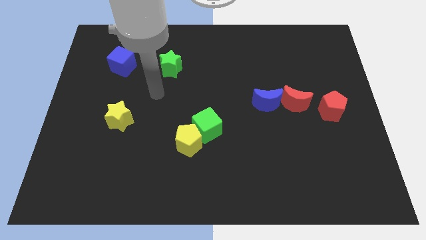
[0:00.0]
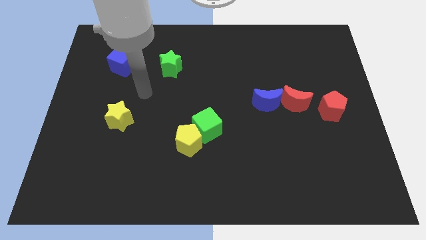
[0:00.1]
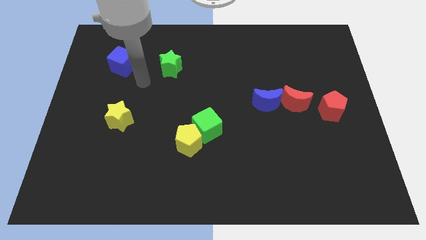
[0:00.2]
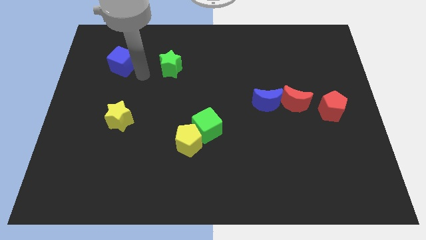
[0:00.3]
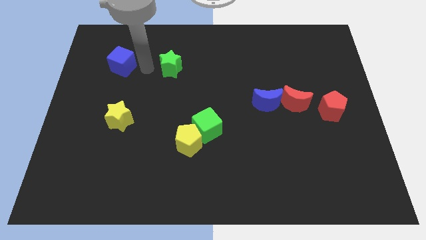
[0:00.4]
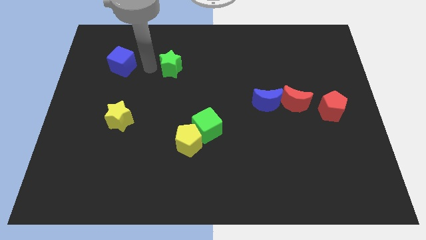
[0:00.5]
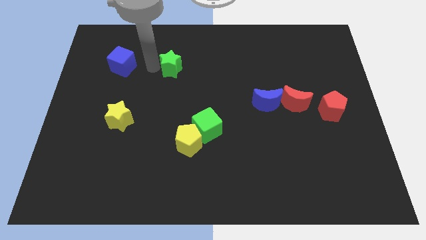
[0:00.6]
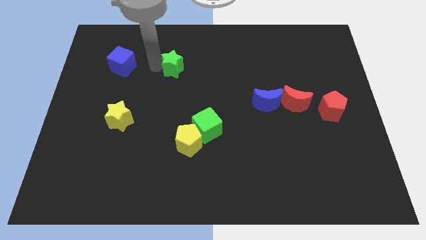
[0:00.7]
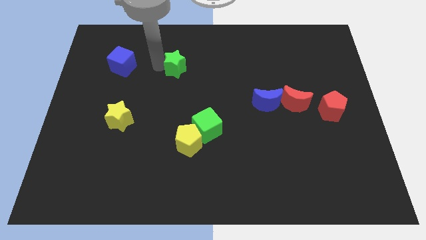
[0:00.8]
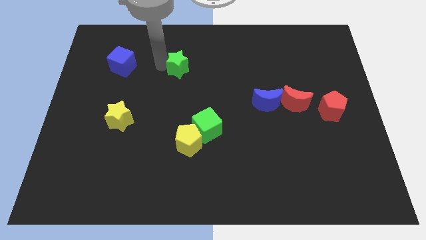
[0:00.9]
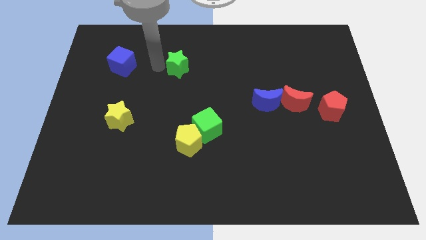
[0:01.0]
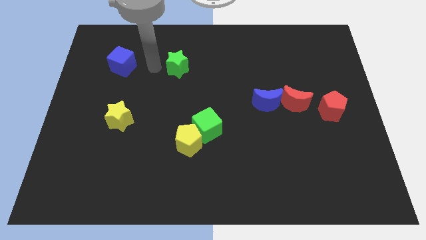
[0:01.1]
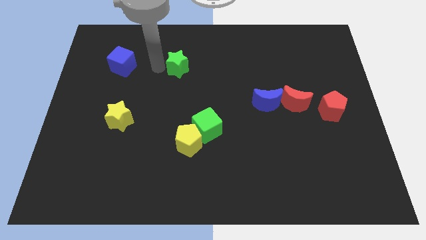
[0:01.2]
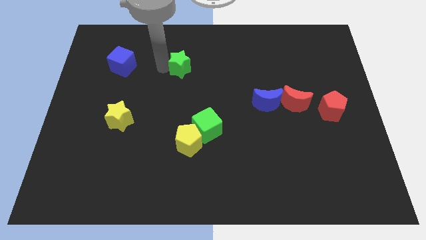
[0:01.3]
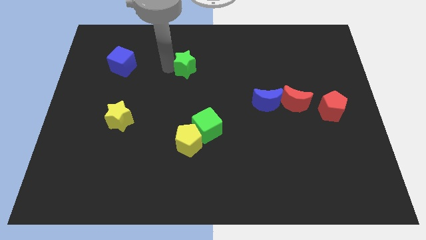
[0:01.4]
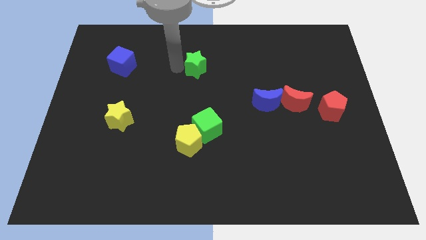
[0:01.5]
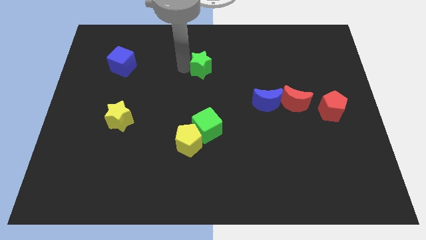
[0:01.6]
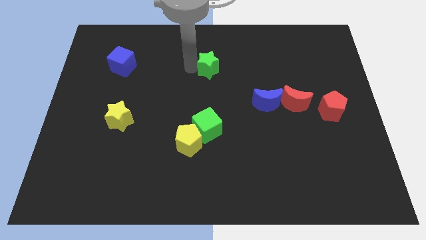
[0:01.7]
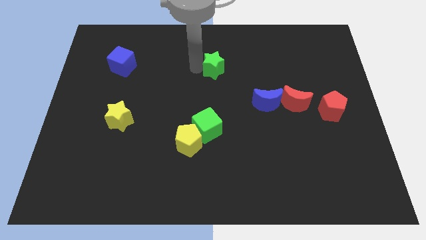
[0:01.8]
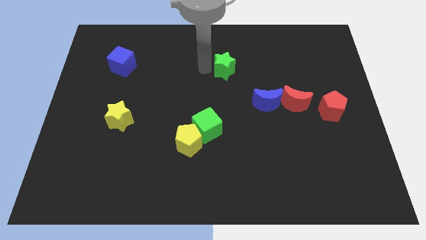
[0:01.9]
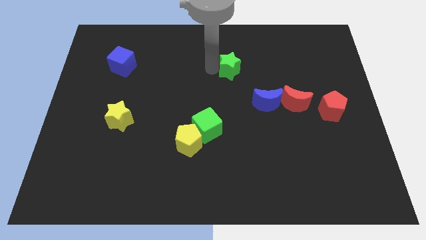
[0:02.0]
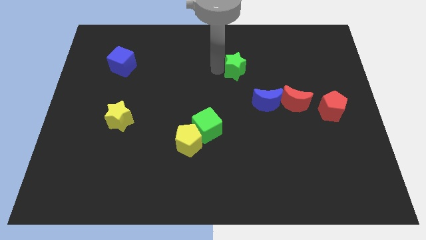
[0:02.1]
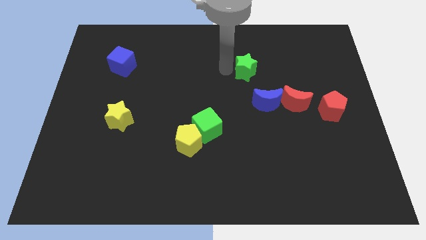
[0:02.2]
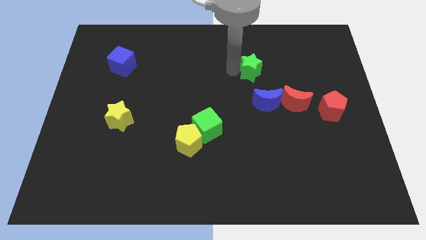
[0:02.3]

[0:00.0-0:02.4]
move the green star right

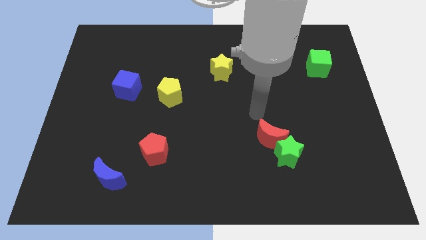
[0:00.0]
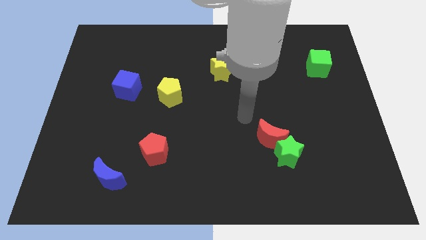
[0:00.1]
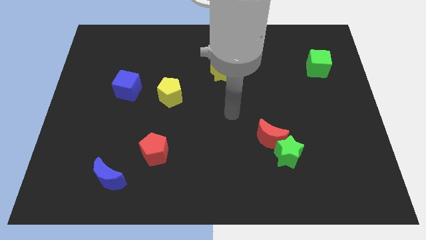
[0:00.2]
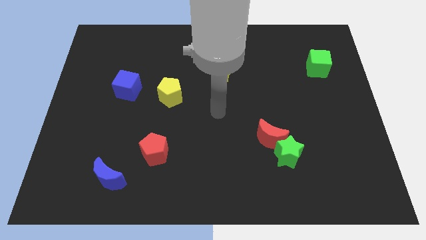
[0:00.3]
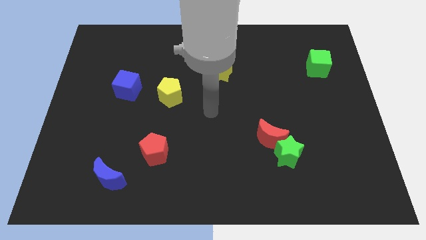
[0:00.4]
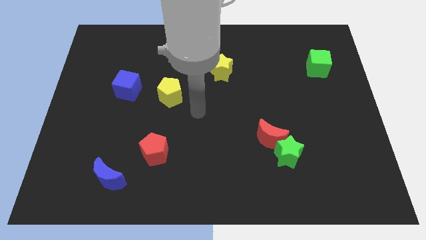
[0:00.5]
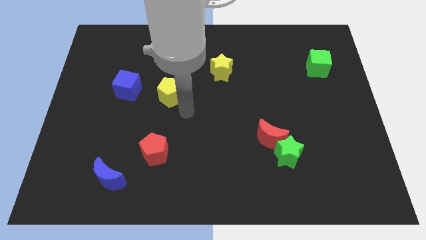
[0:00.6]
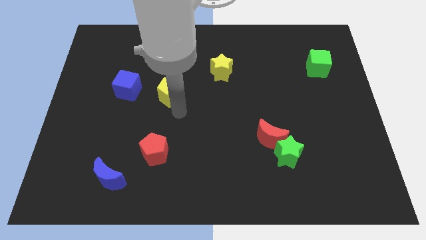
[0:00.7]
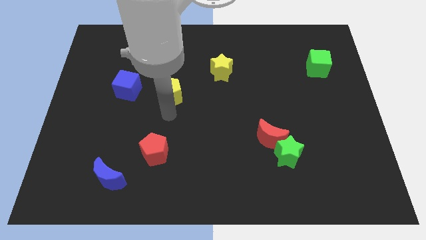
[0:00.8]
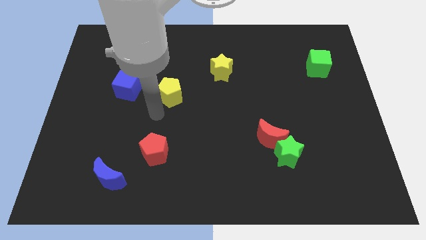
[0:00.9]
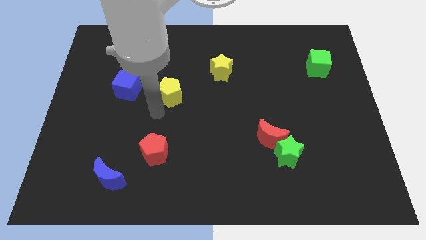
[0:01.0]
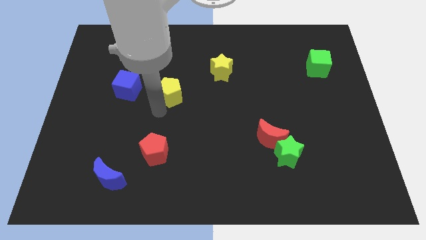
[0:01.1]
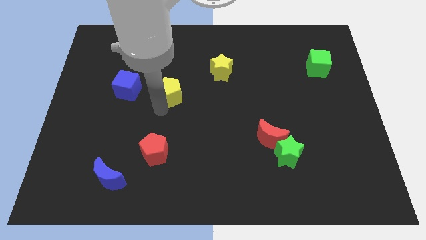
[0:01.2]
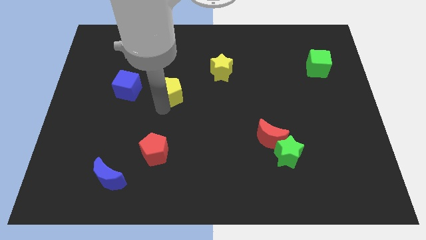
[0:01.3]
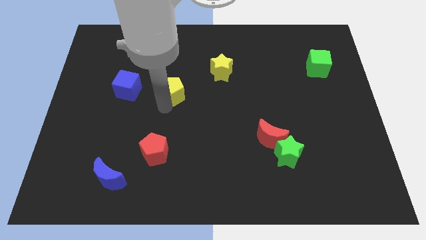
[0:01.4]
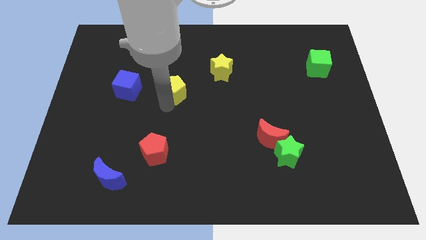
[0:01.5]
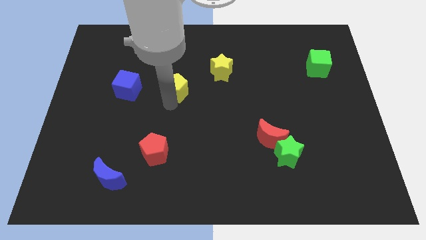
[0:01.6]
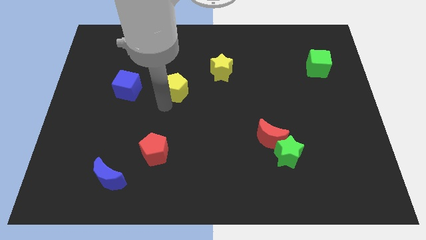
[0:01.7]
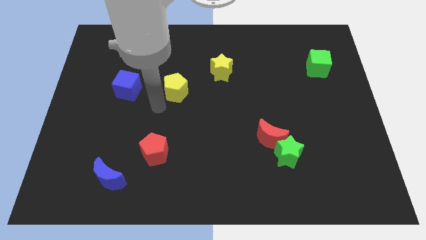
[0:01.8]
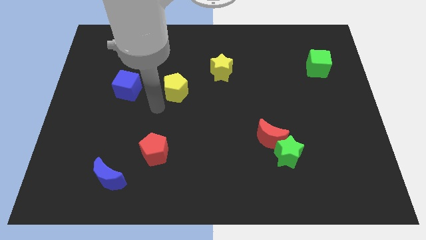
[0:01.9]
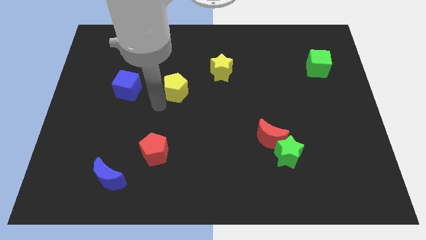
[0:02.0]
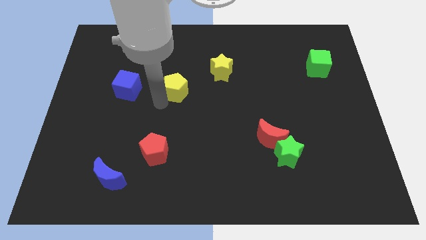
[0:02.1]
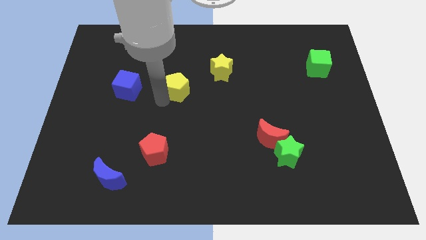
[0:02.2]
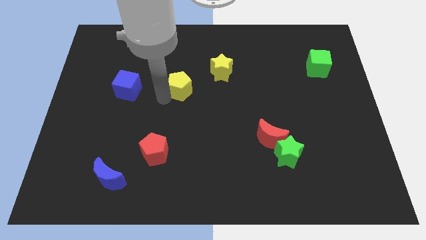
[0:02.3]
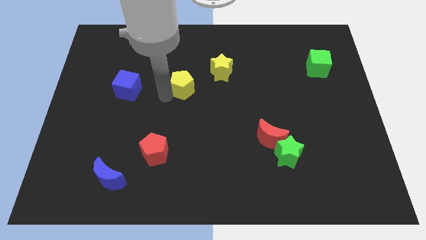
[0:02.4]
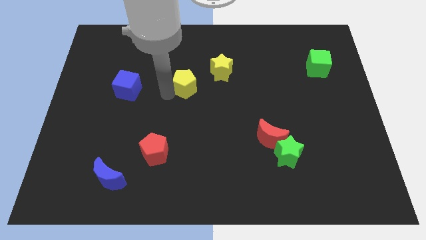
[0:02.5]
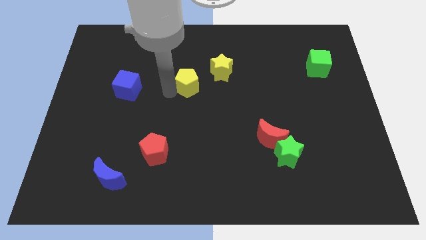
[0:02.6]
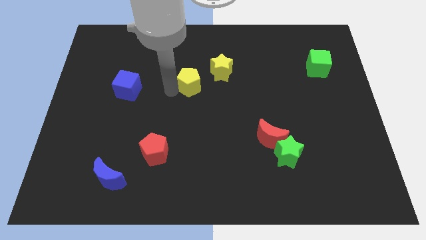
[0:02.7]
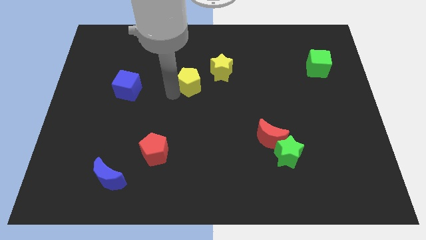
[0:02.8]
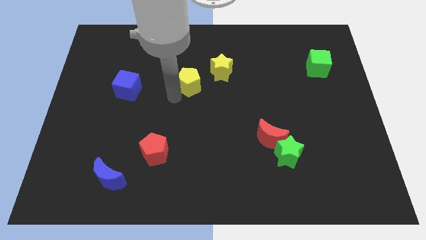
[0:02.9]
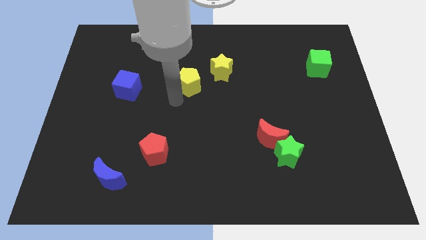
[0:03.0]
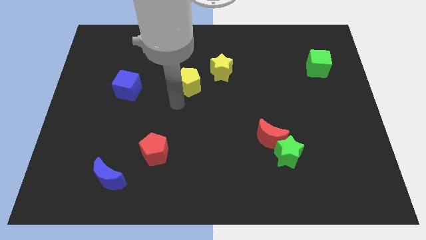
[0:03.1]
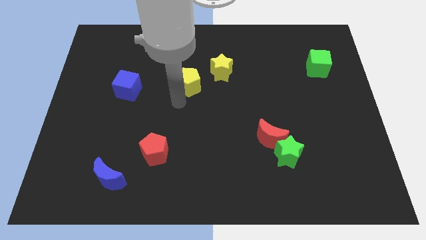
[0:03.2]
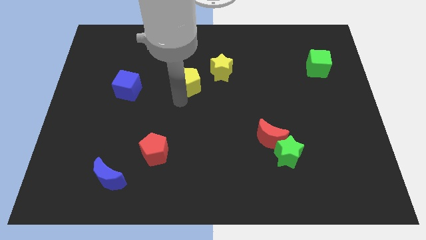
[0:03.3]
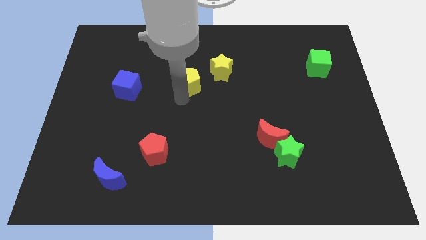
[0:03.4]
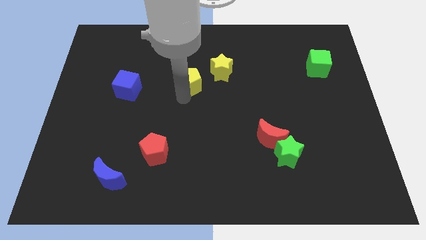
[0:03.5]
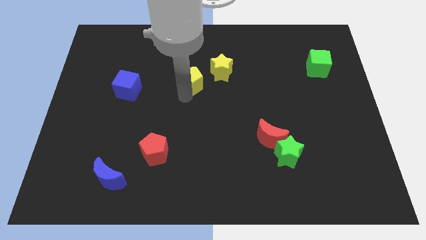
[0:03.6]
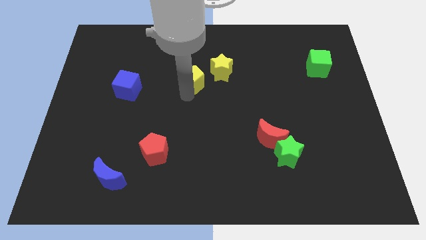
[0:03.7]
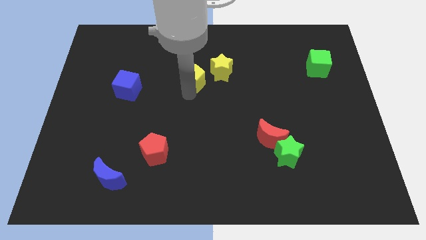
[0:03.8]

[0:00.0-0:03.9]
slightly move the yellow pentagon upwards and right

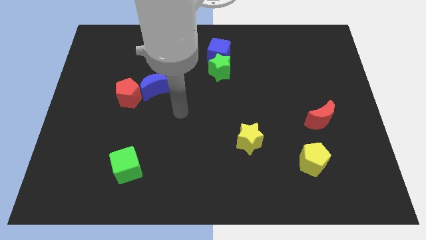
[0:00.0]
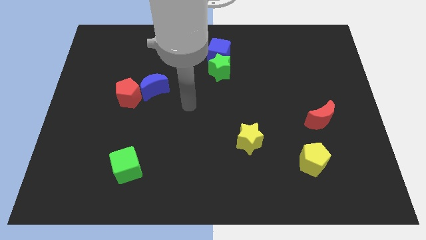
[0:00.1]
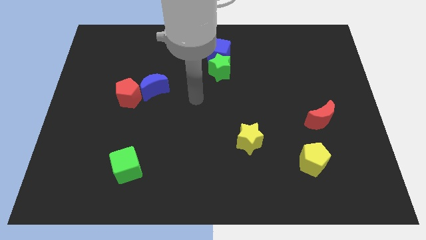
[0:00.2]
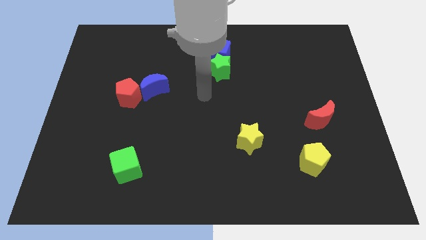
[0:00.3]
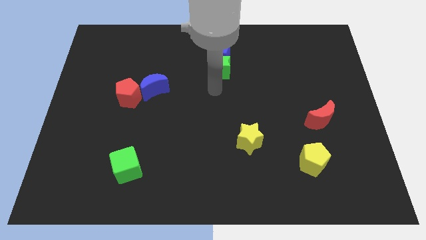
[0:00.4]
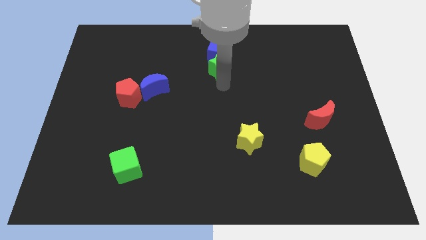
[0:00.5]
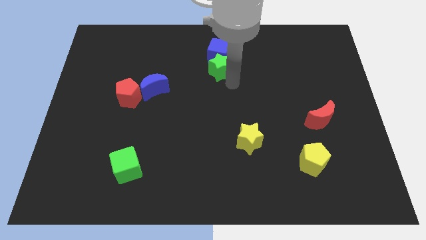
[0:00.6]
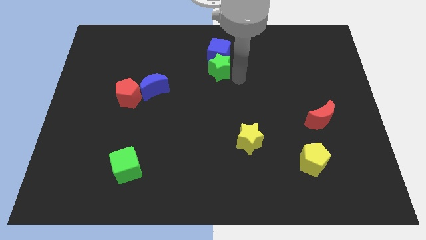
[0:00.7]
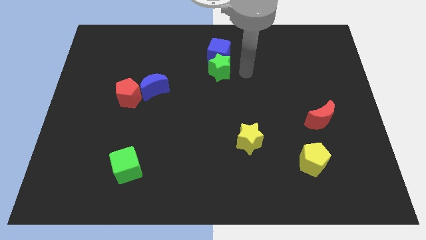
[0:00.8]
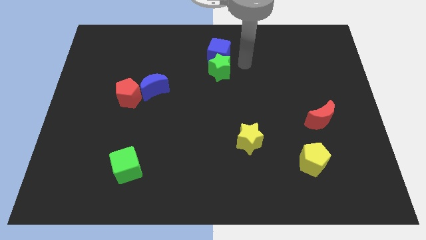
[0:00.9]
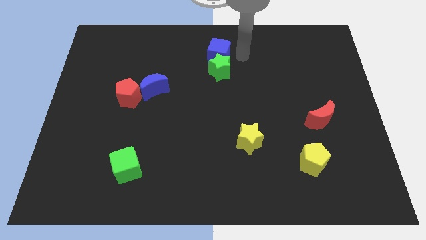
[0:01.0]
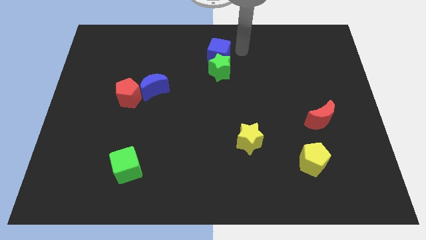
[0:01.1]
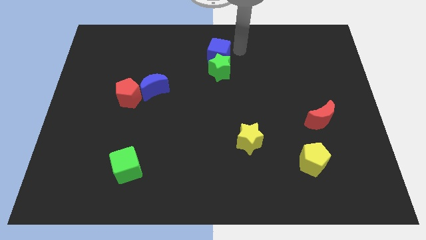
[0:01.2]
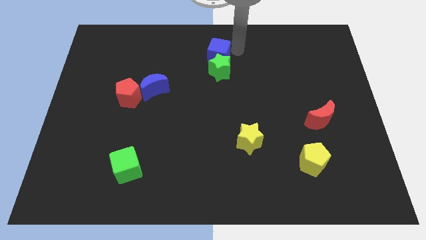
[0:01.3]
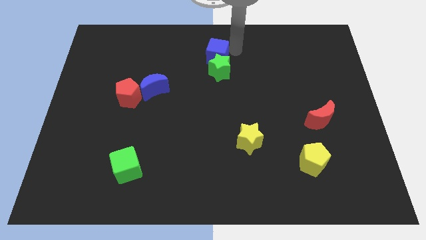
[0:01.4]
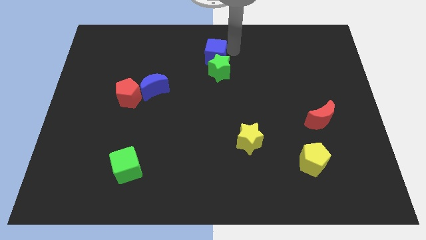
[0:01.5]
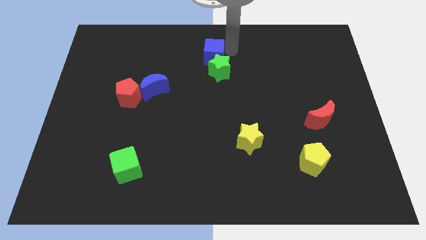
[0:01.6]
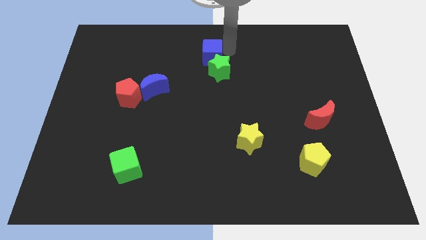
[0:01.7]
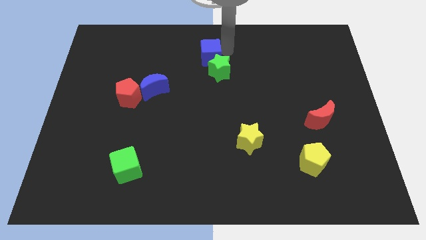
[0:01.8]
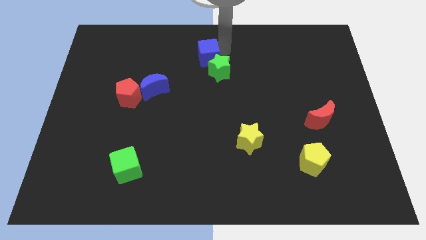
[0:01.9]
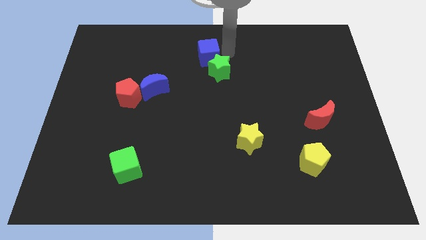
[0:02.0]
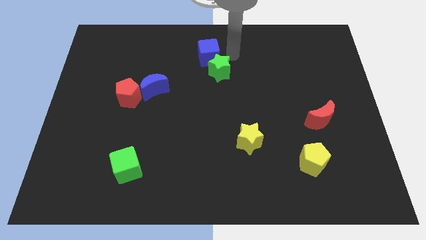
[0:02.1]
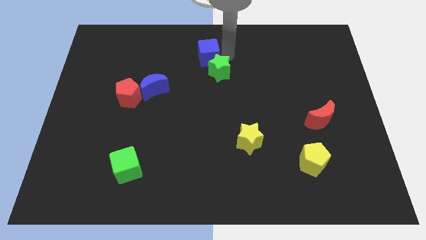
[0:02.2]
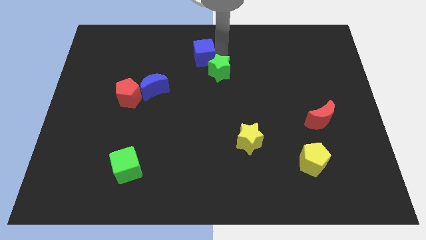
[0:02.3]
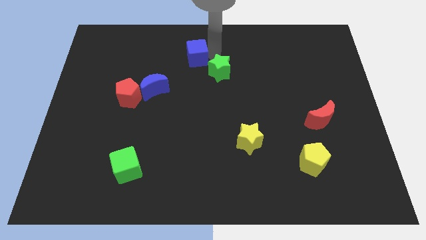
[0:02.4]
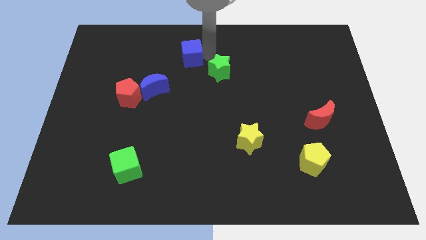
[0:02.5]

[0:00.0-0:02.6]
push the blue cube somewhat to the left
